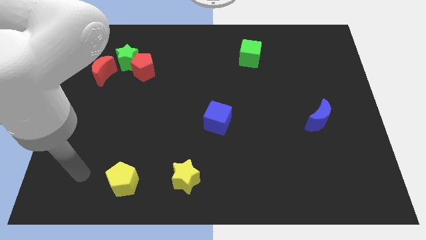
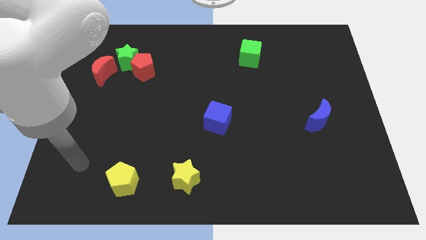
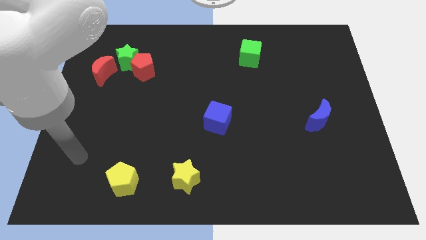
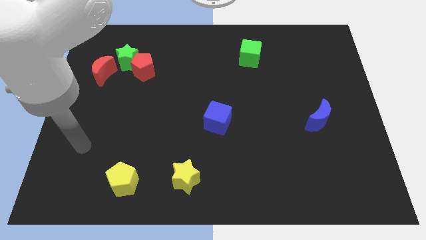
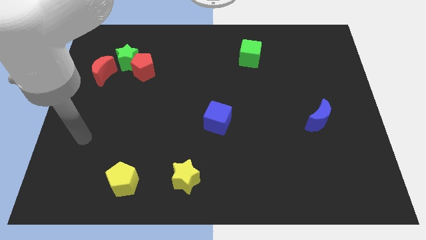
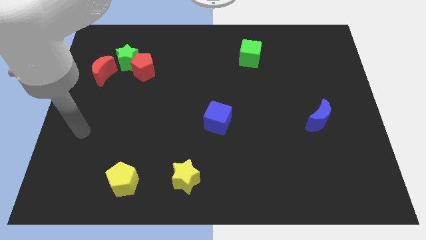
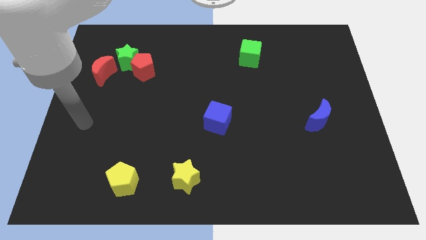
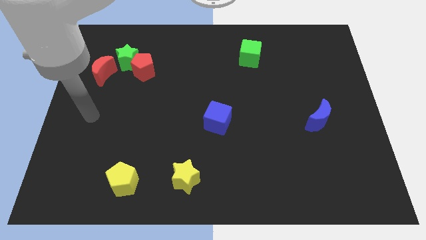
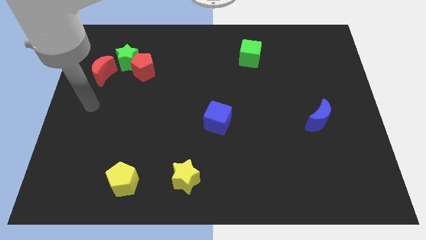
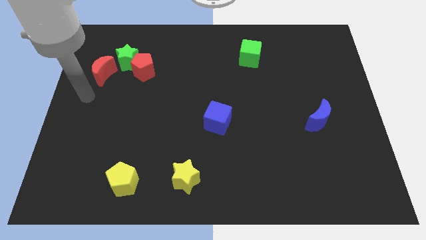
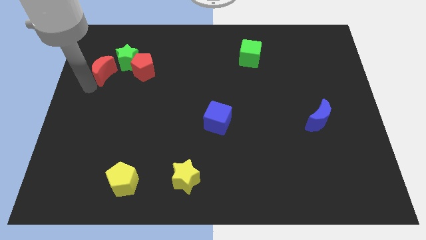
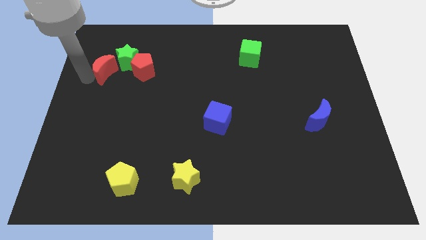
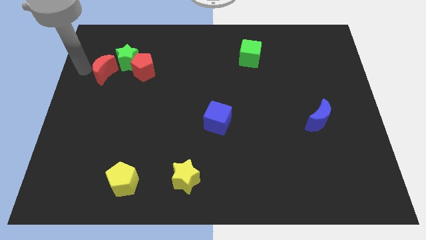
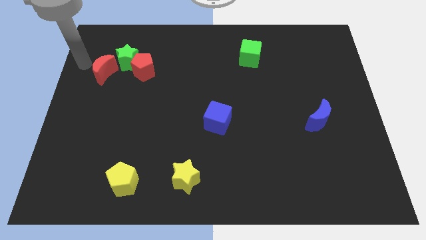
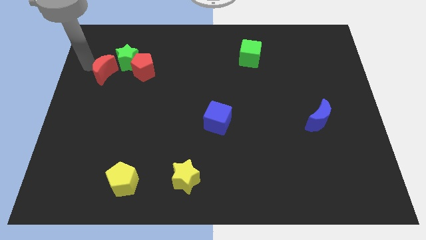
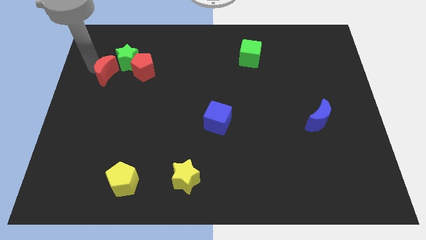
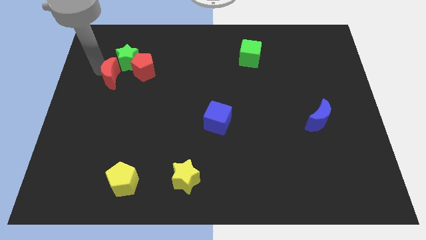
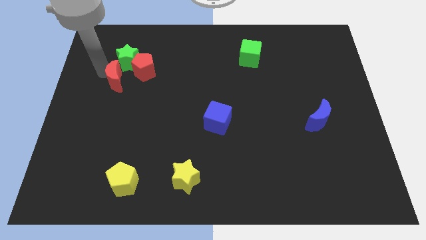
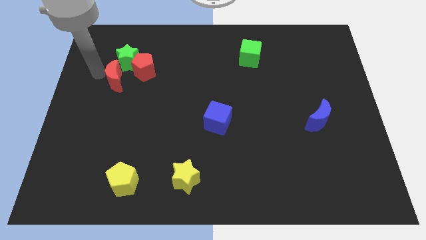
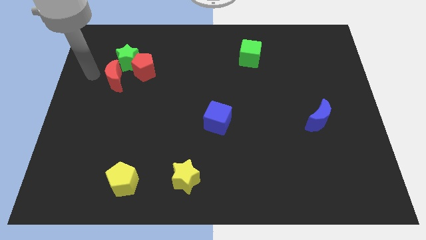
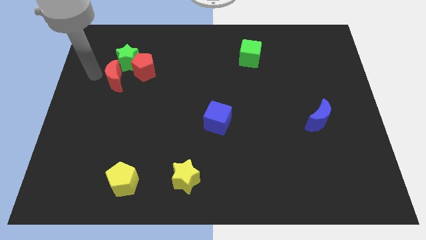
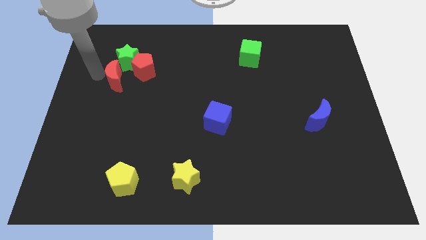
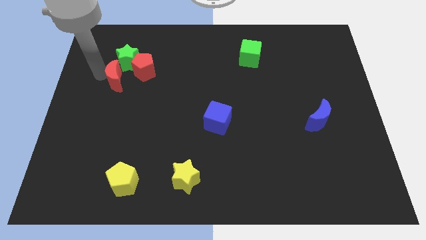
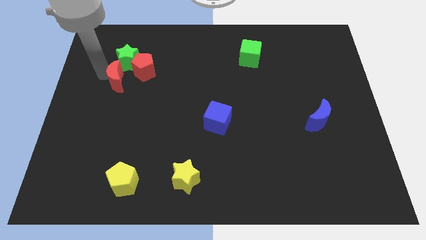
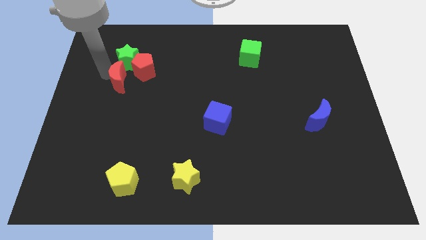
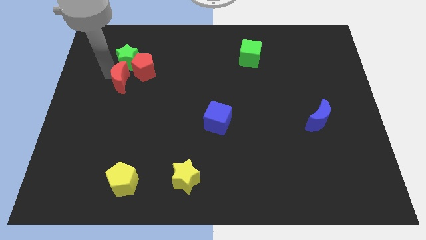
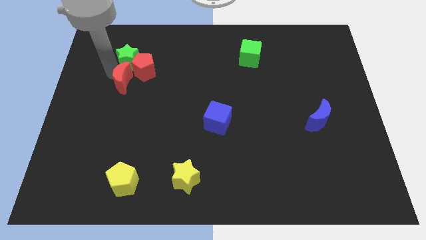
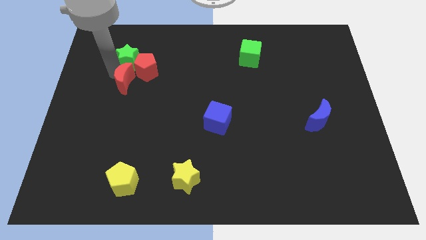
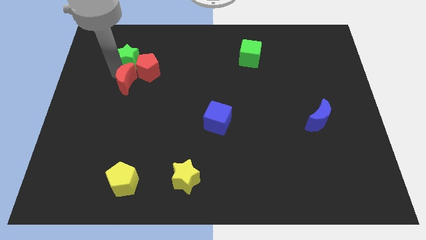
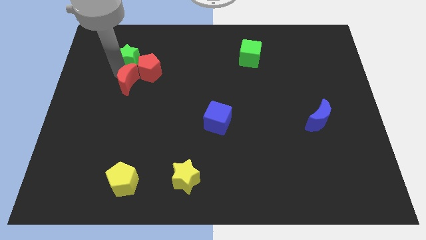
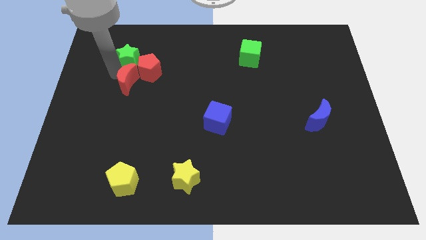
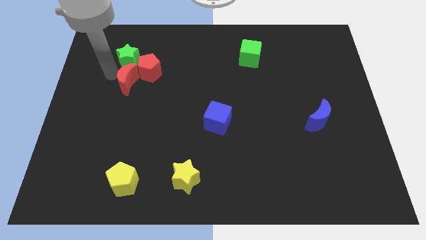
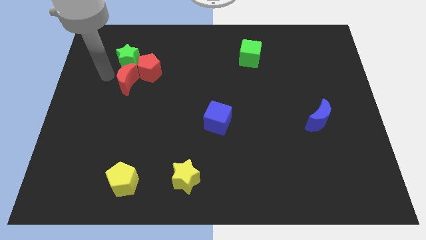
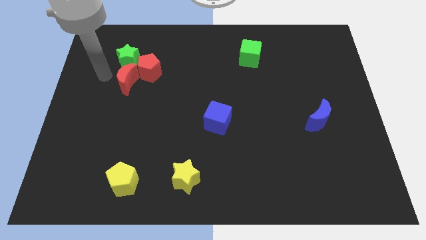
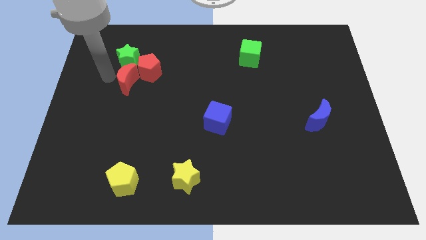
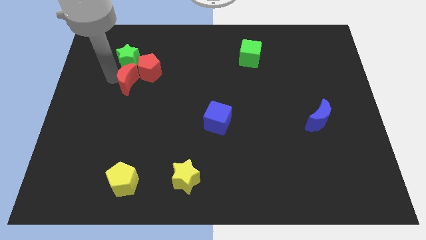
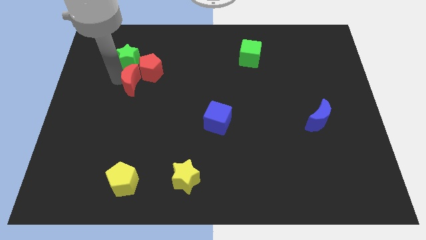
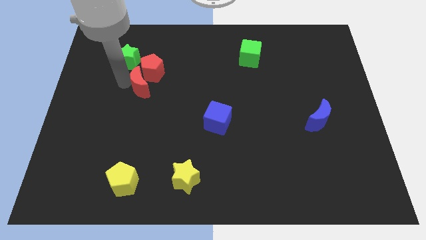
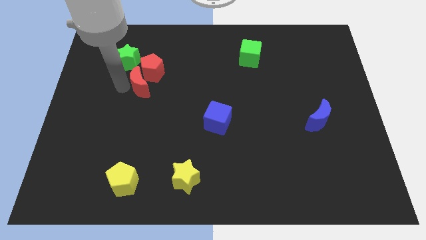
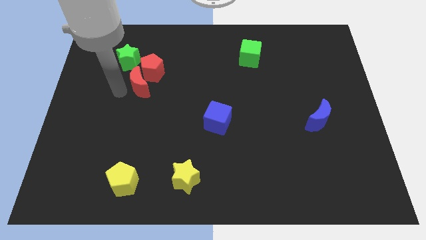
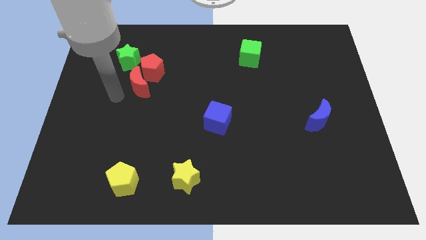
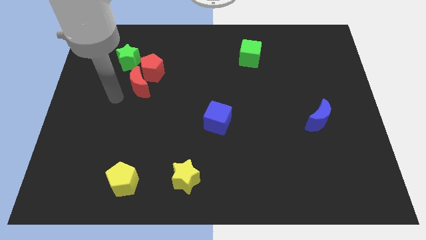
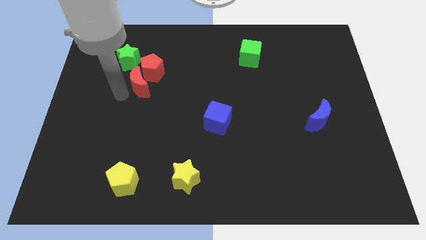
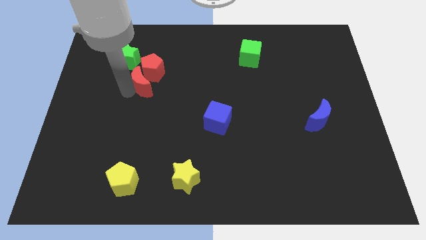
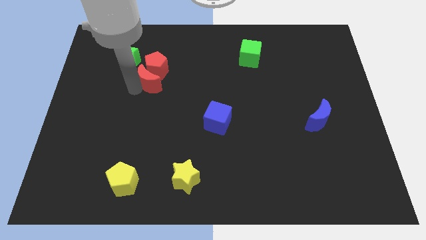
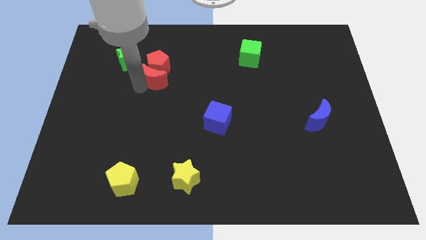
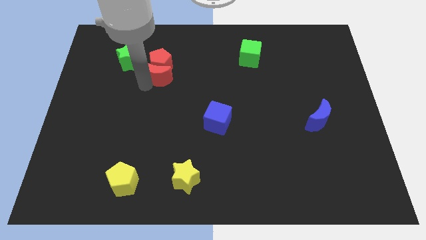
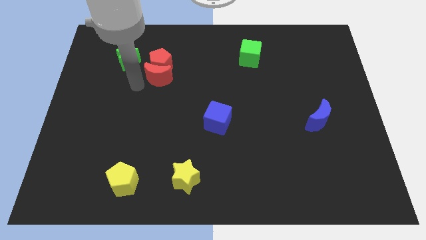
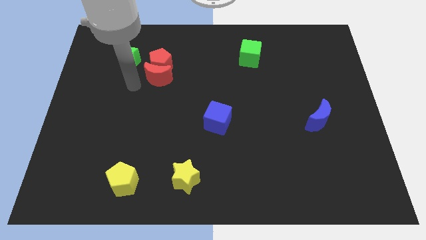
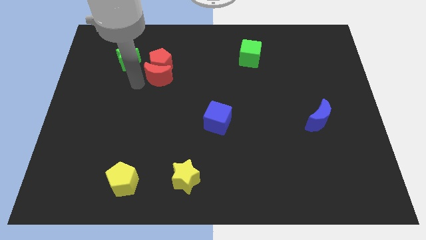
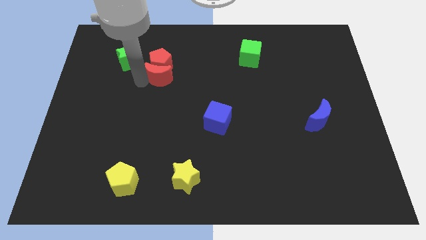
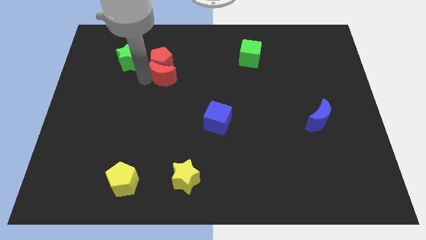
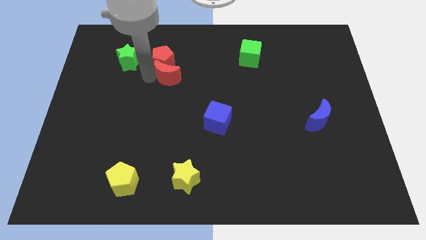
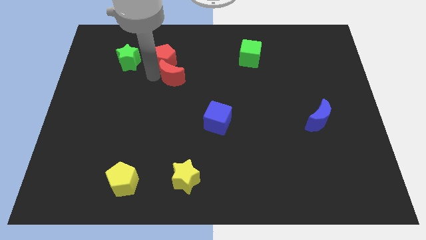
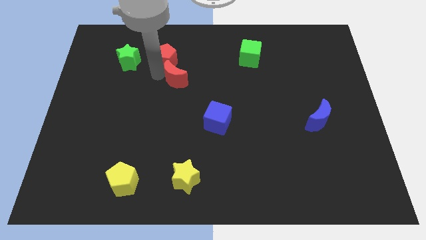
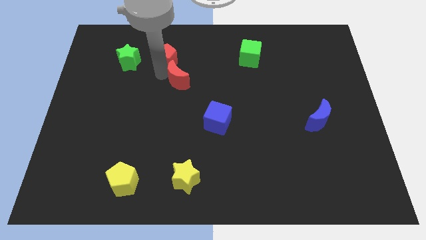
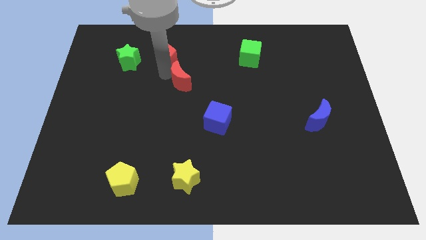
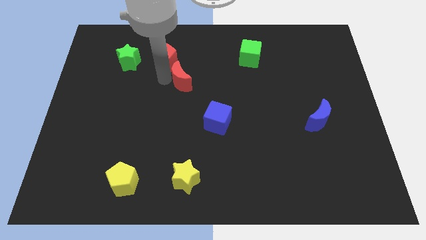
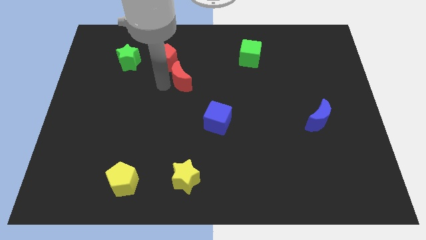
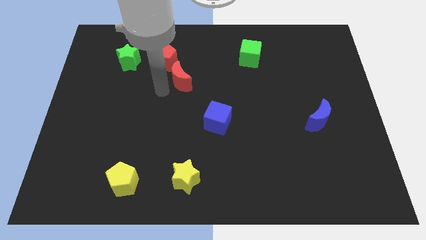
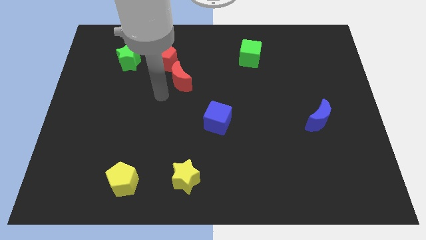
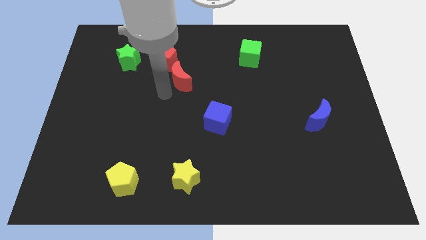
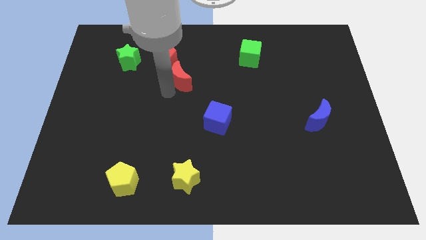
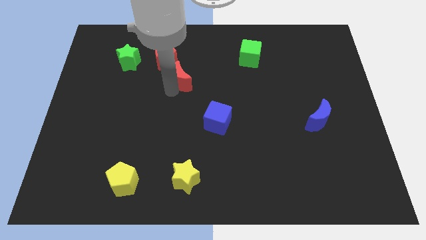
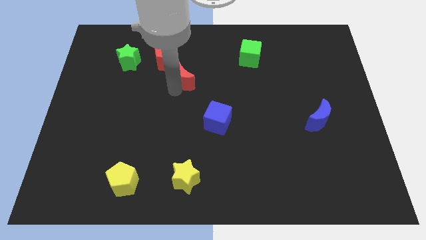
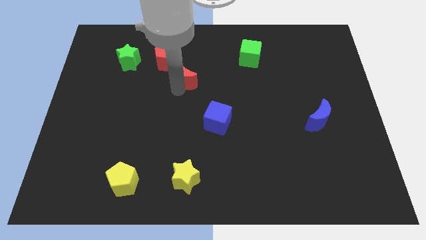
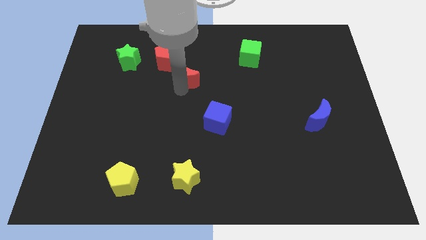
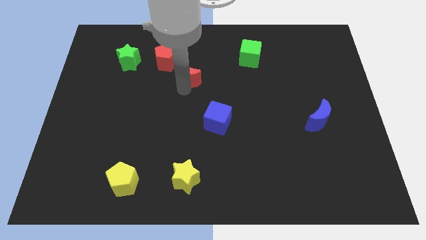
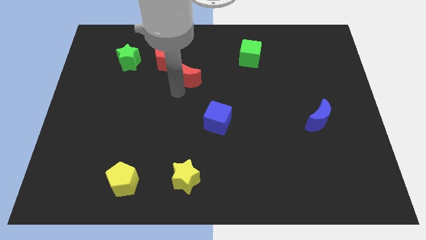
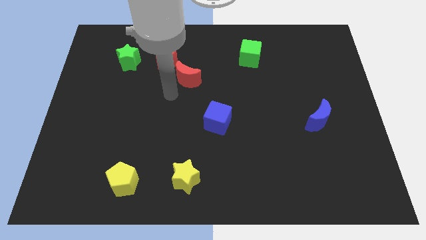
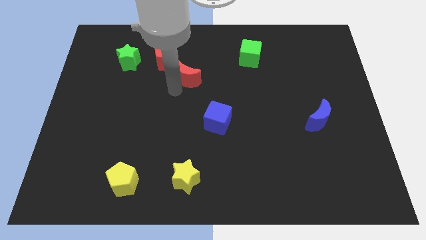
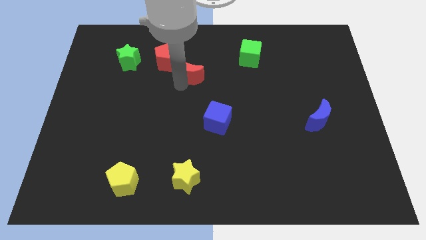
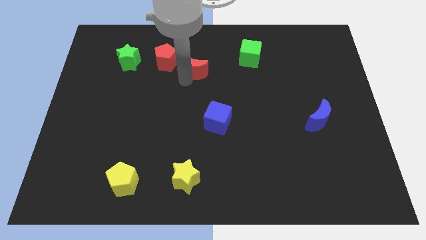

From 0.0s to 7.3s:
put the red moon to the right of the red pentagon
